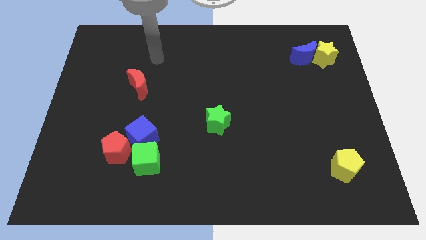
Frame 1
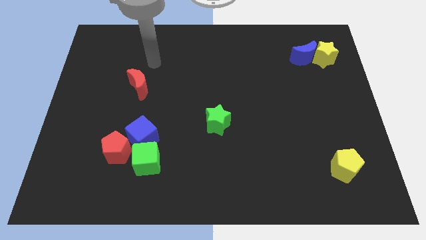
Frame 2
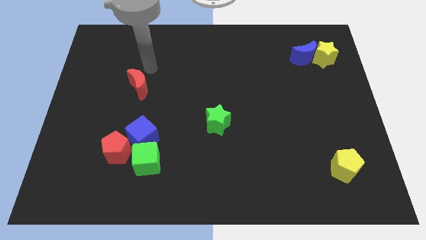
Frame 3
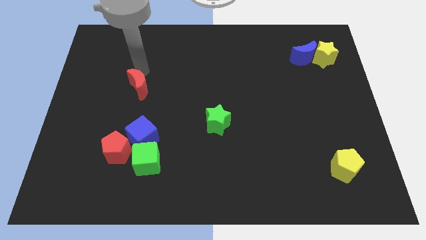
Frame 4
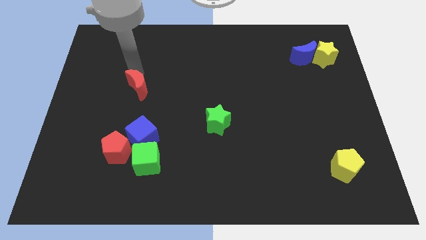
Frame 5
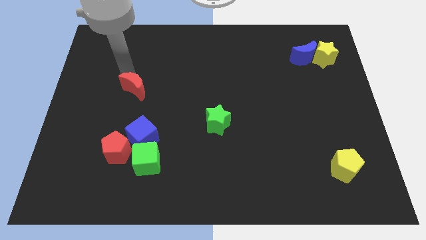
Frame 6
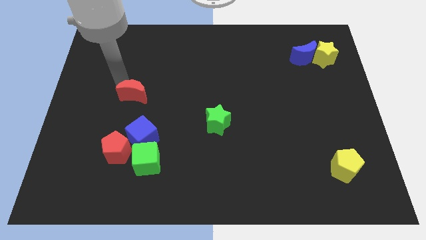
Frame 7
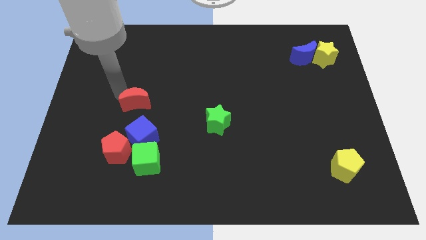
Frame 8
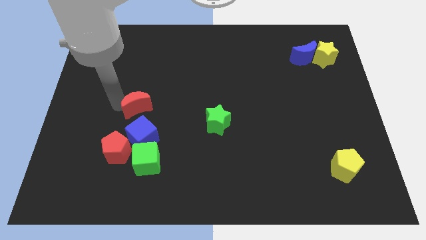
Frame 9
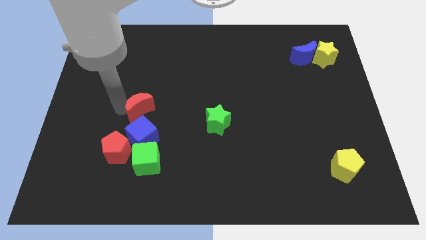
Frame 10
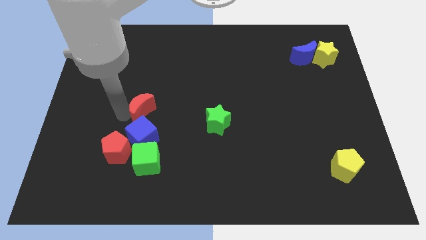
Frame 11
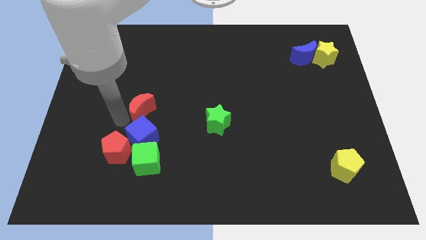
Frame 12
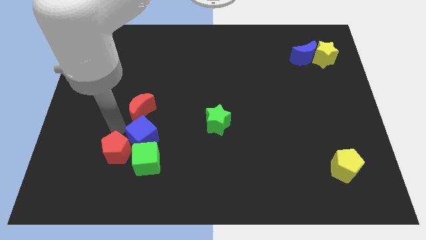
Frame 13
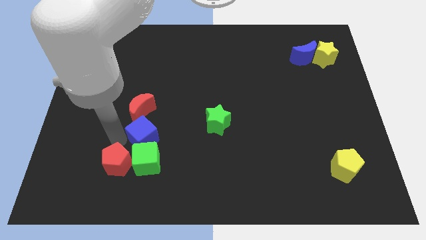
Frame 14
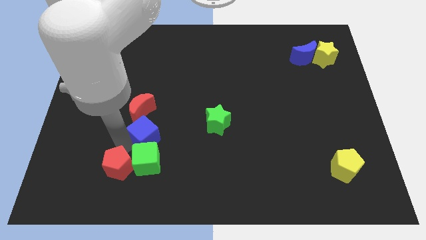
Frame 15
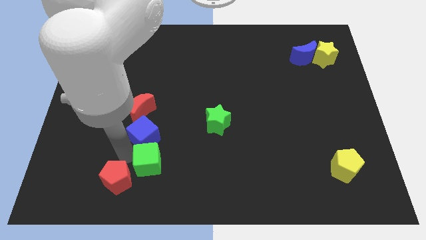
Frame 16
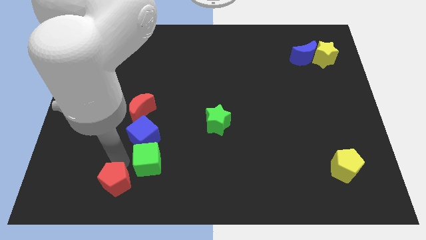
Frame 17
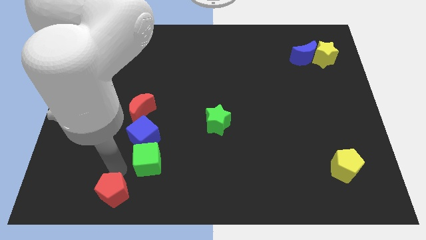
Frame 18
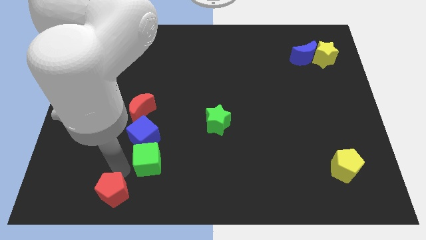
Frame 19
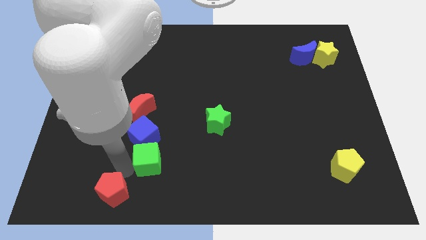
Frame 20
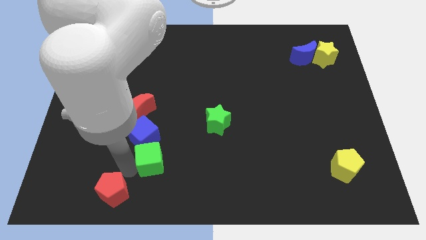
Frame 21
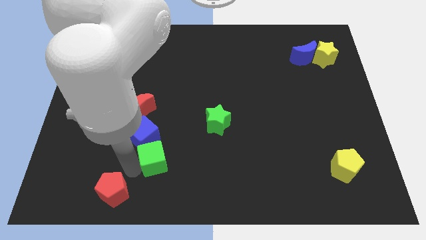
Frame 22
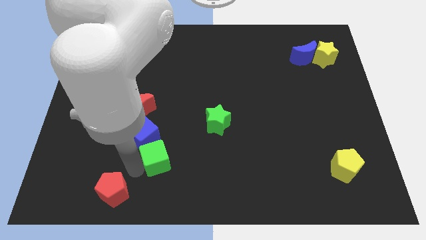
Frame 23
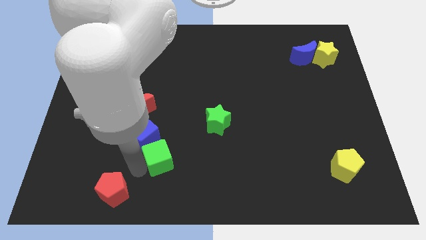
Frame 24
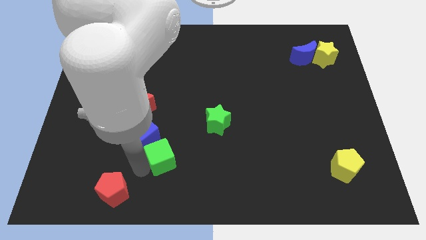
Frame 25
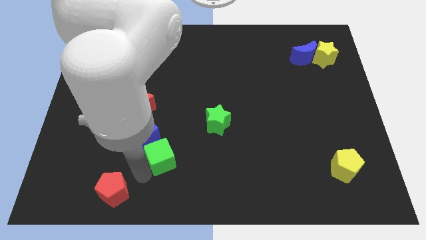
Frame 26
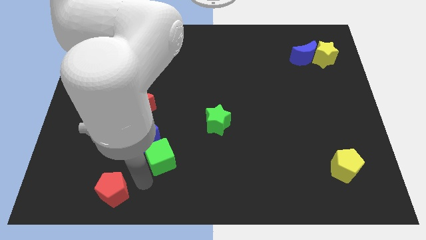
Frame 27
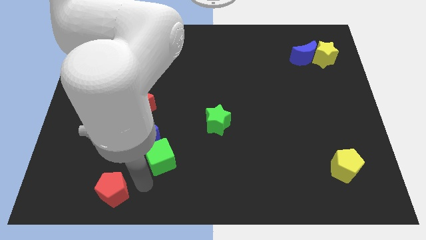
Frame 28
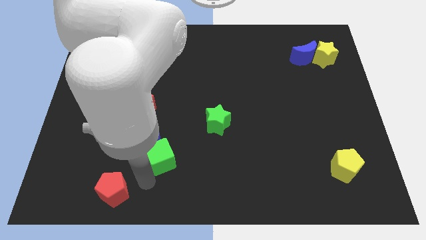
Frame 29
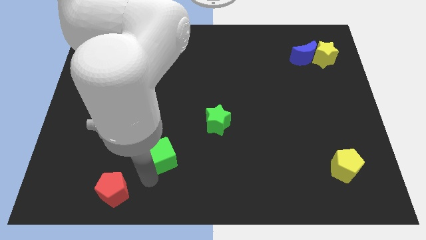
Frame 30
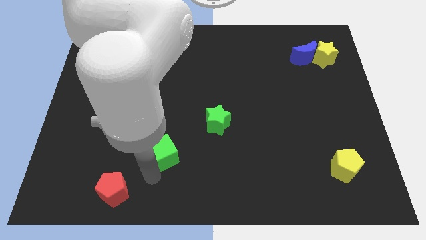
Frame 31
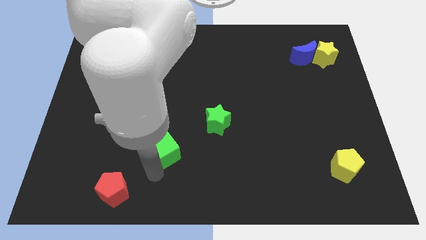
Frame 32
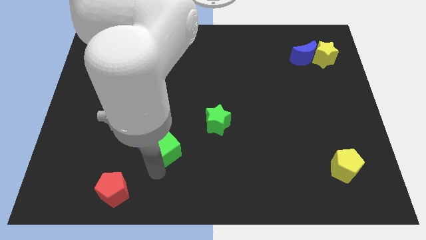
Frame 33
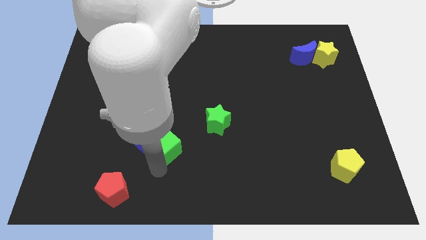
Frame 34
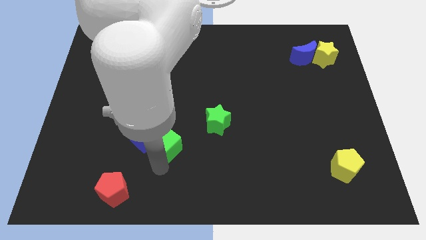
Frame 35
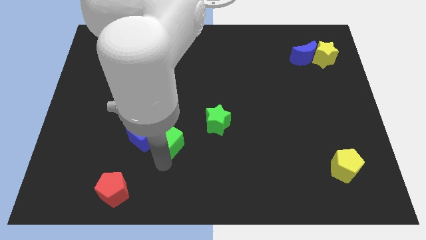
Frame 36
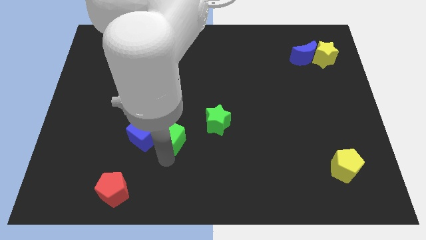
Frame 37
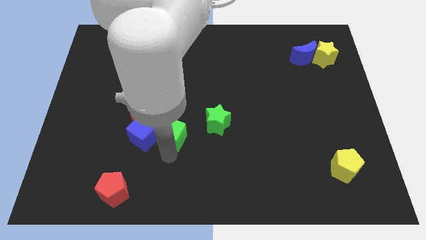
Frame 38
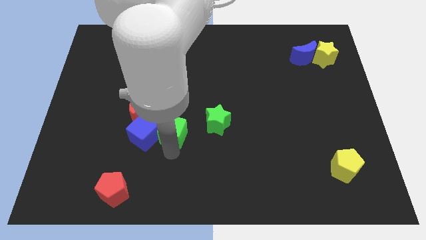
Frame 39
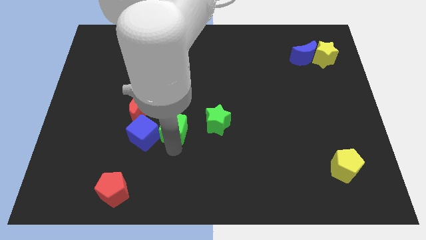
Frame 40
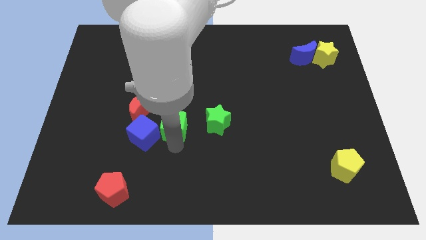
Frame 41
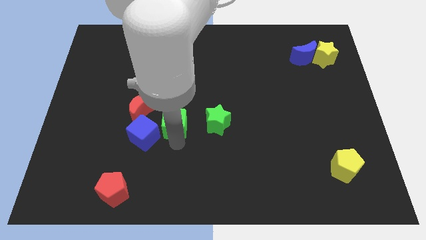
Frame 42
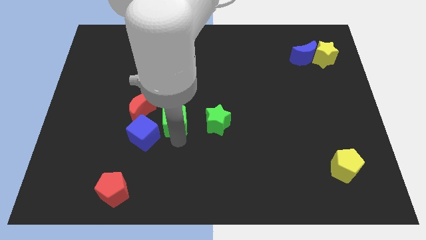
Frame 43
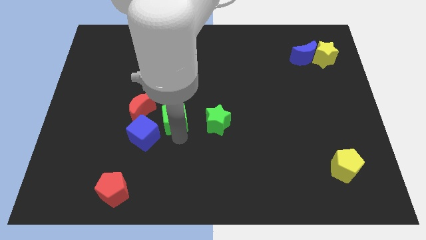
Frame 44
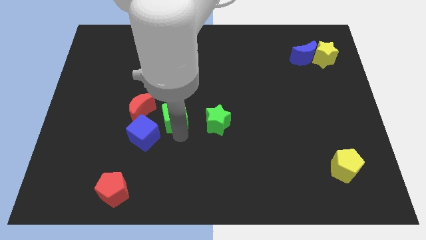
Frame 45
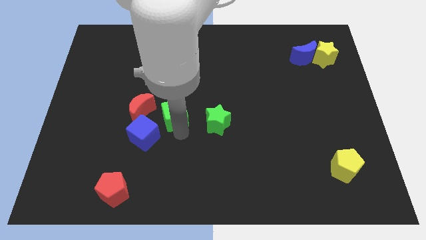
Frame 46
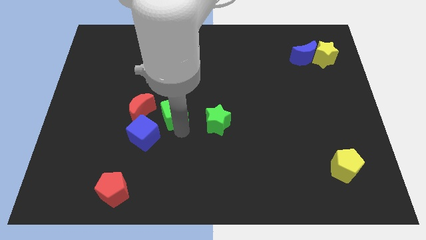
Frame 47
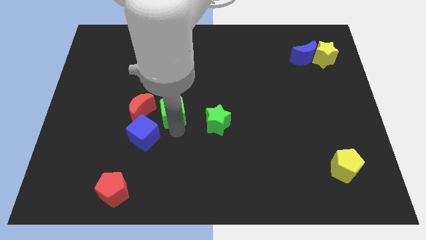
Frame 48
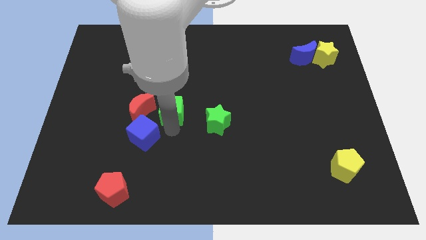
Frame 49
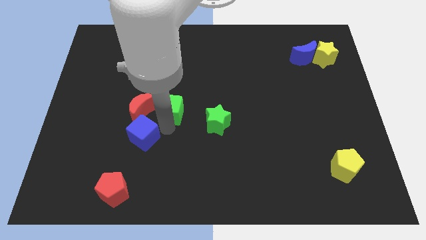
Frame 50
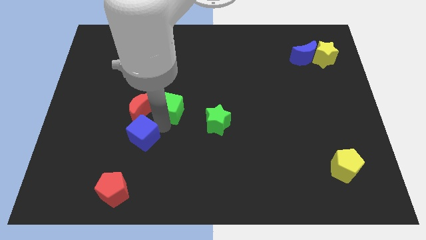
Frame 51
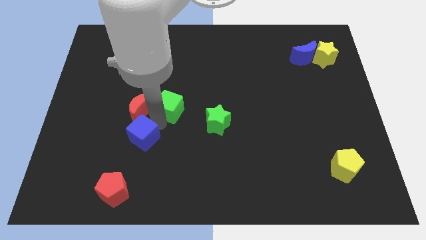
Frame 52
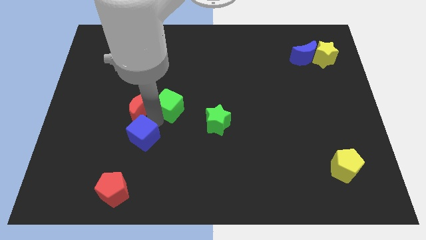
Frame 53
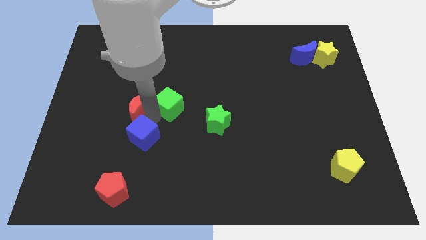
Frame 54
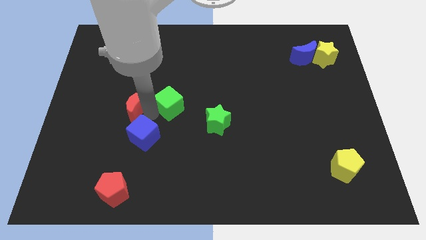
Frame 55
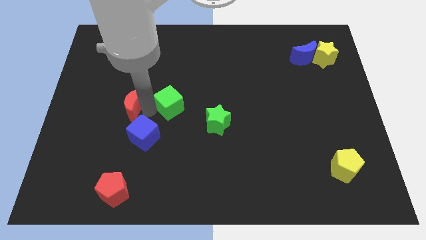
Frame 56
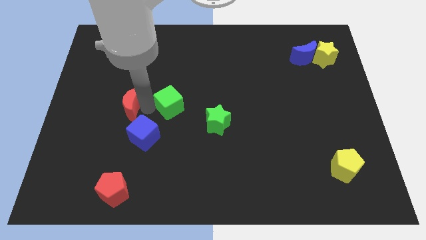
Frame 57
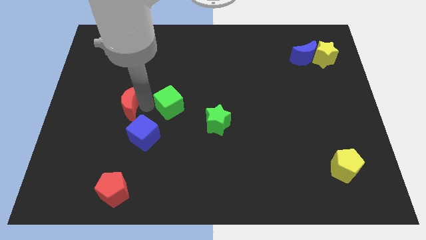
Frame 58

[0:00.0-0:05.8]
slide the green cube to the right side of the red moon

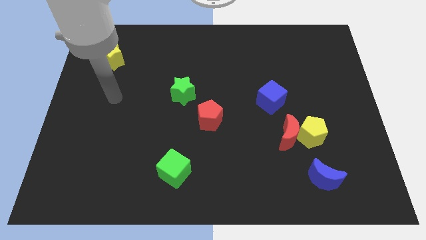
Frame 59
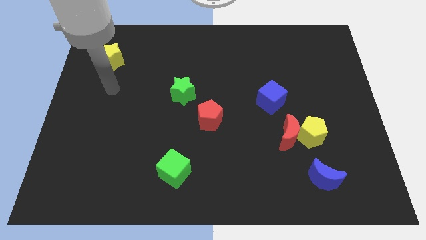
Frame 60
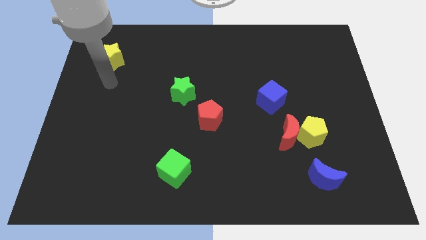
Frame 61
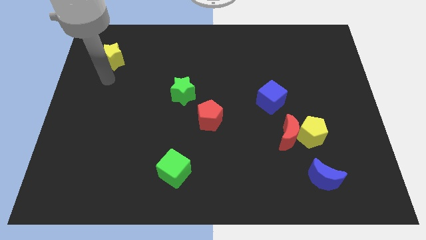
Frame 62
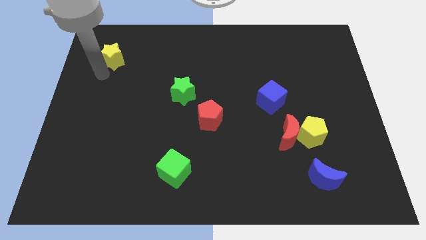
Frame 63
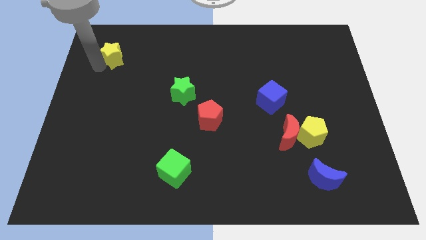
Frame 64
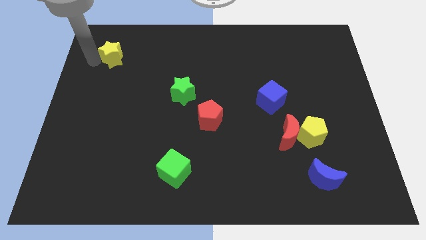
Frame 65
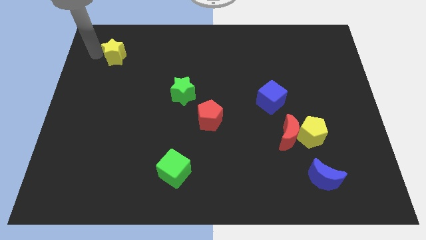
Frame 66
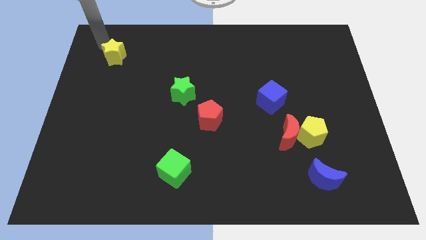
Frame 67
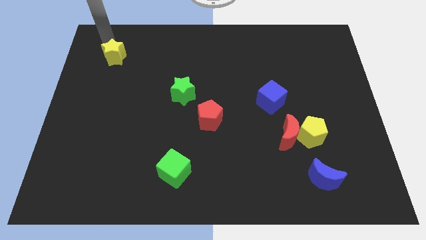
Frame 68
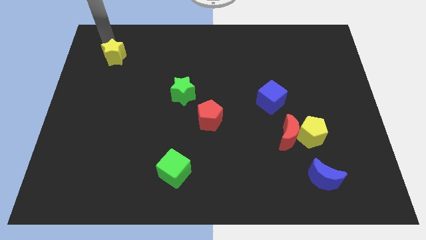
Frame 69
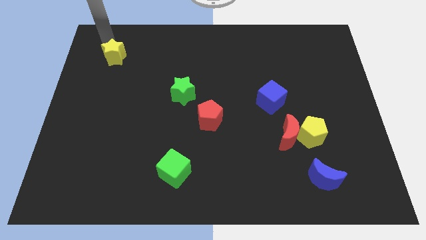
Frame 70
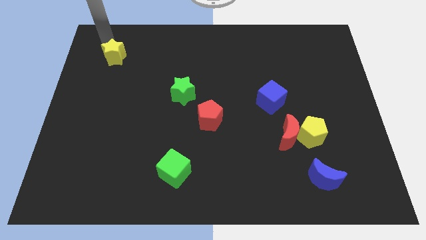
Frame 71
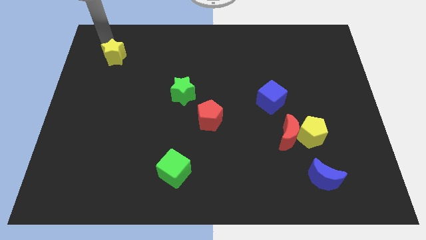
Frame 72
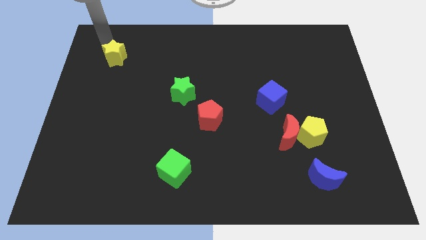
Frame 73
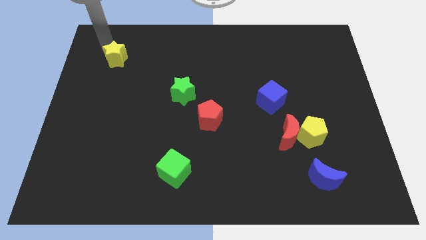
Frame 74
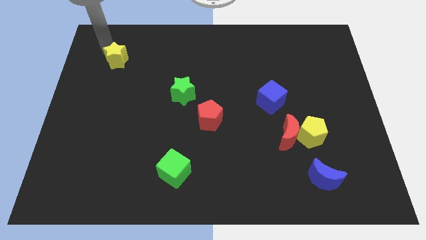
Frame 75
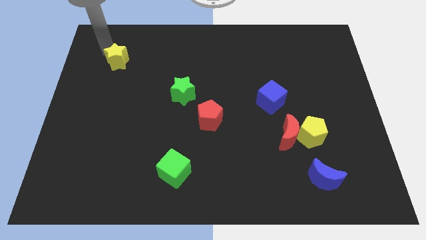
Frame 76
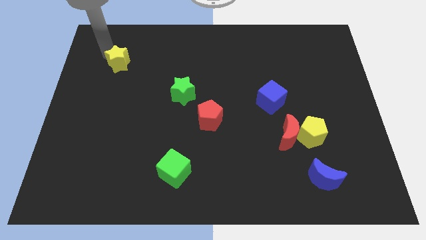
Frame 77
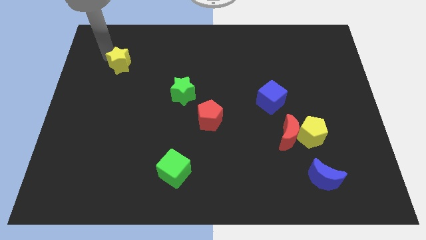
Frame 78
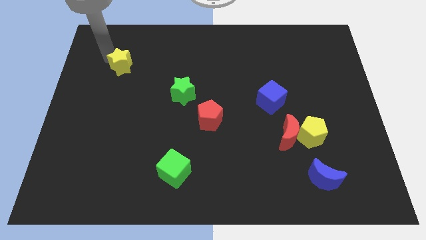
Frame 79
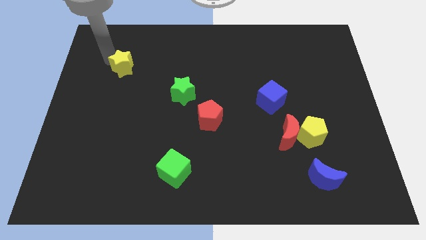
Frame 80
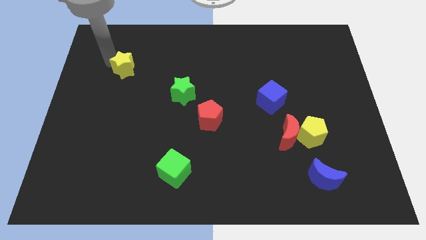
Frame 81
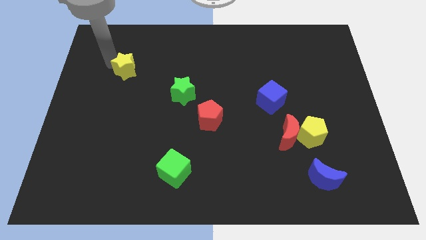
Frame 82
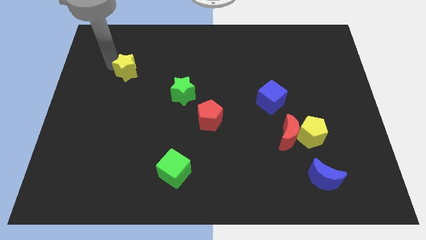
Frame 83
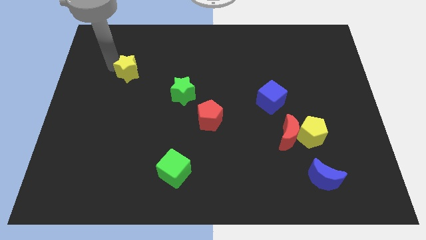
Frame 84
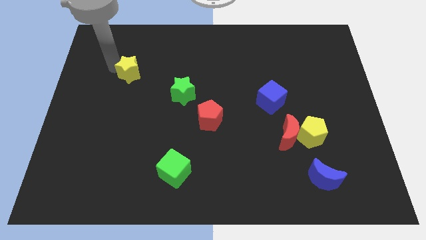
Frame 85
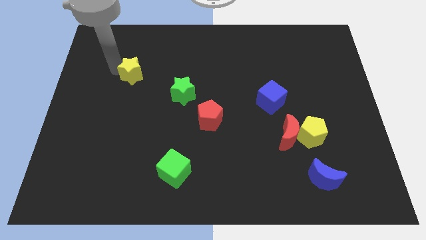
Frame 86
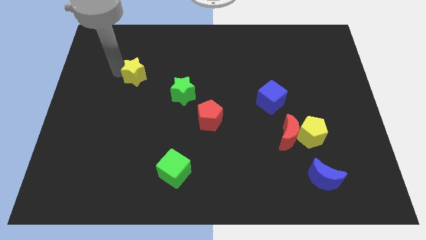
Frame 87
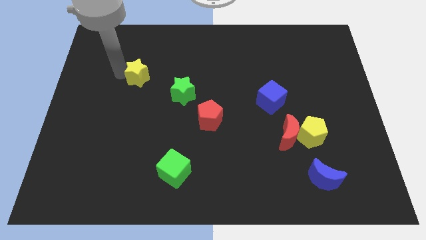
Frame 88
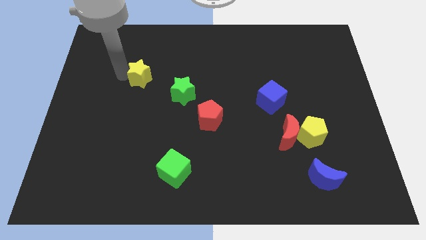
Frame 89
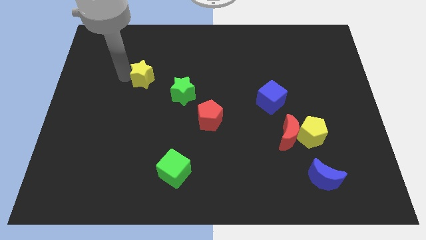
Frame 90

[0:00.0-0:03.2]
move the yellow star diagonally up and to the left of the green star
